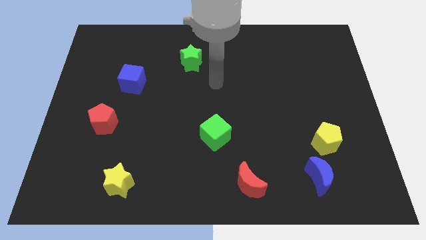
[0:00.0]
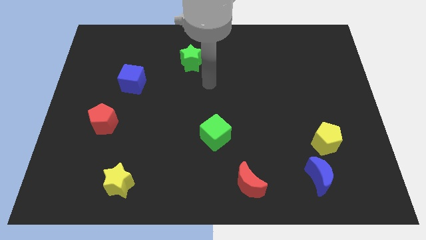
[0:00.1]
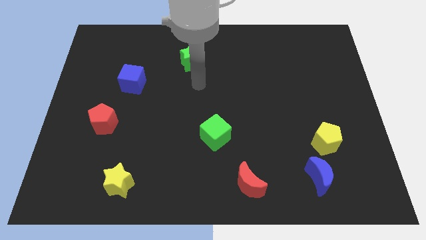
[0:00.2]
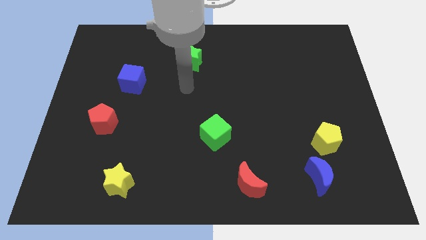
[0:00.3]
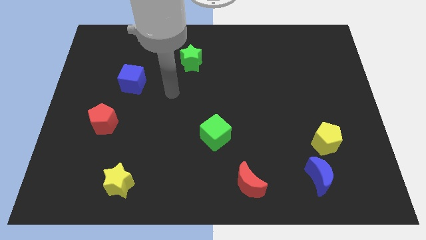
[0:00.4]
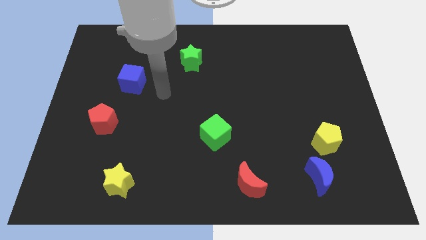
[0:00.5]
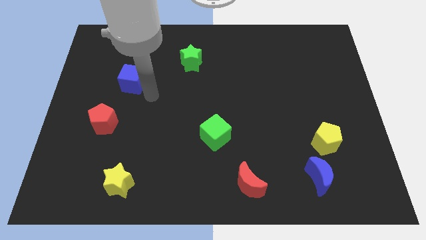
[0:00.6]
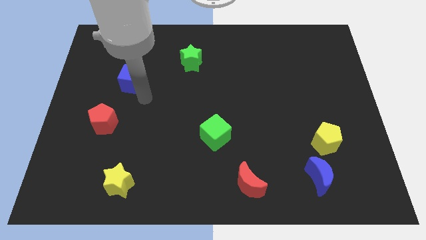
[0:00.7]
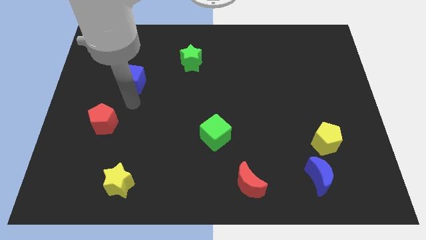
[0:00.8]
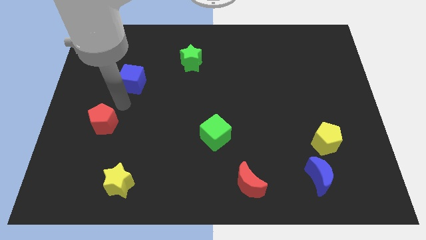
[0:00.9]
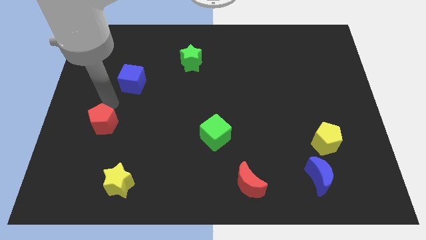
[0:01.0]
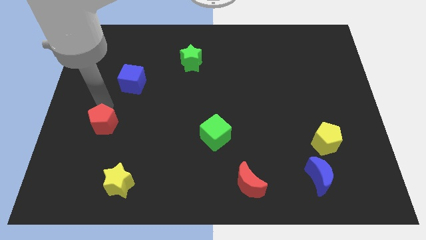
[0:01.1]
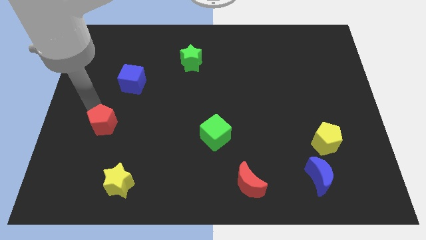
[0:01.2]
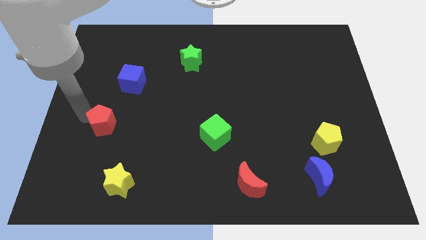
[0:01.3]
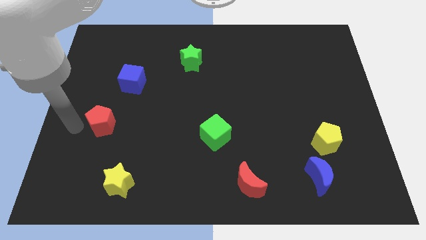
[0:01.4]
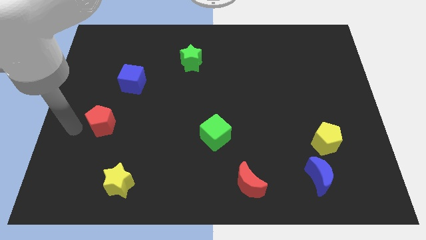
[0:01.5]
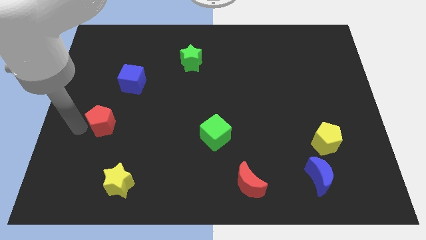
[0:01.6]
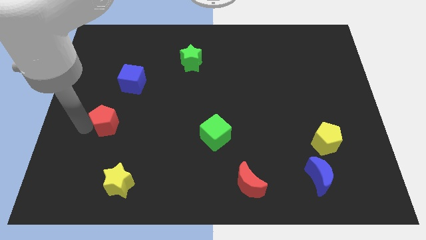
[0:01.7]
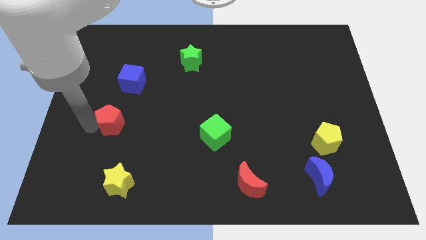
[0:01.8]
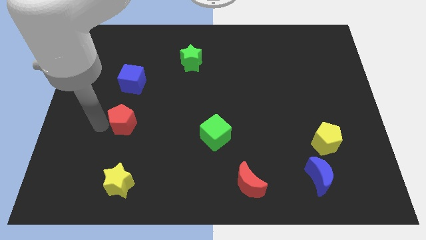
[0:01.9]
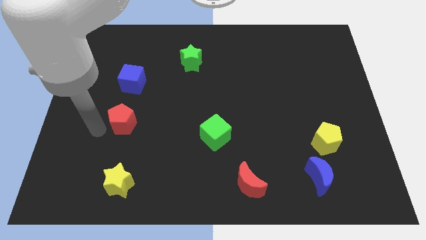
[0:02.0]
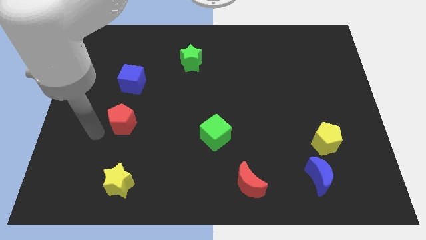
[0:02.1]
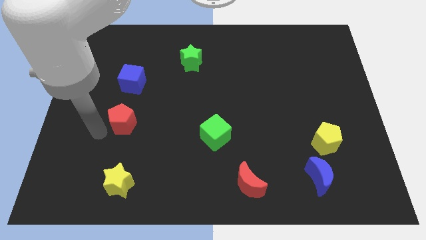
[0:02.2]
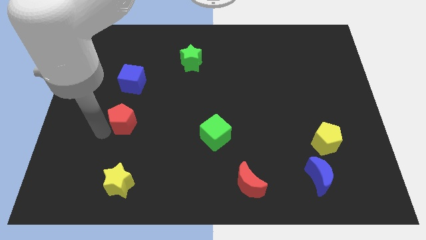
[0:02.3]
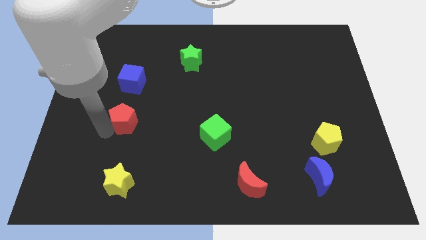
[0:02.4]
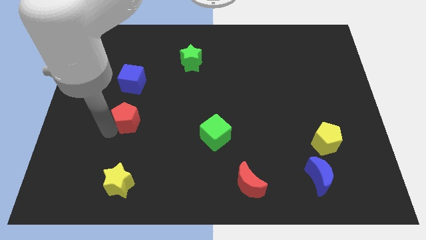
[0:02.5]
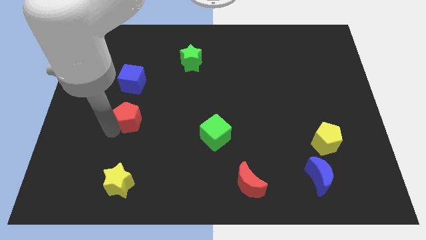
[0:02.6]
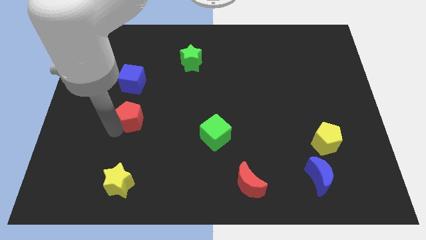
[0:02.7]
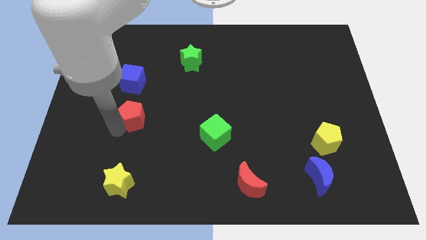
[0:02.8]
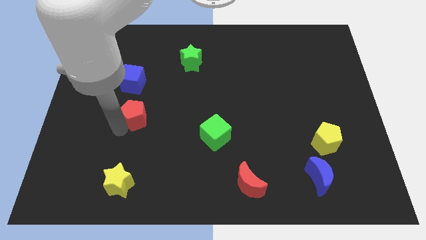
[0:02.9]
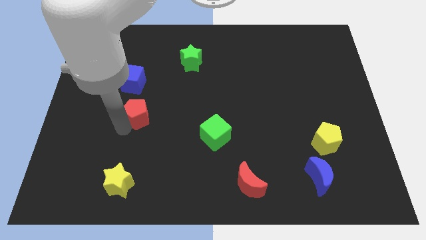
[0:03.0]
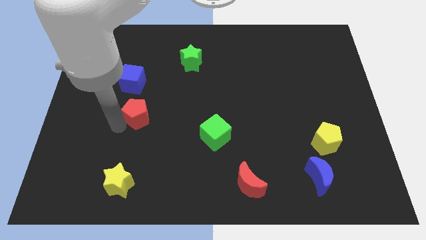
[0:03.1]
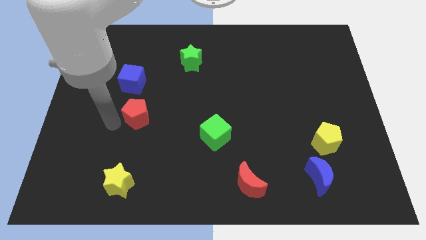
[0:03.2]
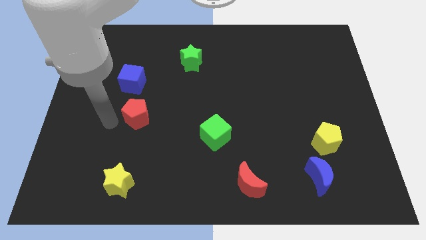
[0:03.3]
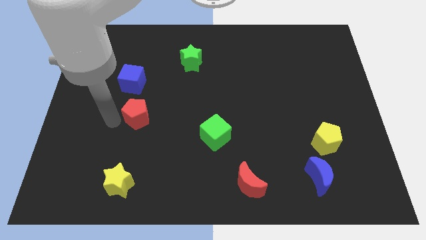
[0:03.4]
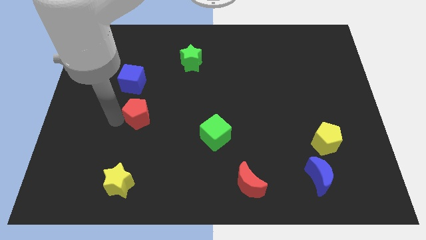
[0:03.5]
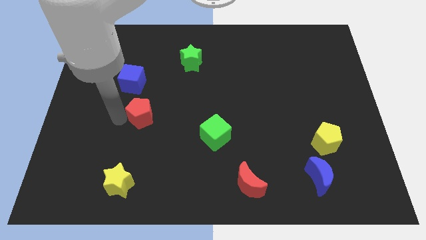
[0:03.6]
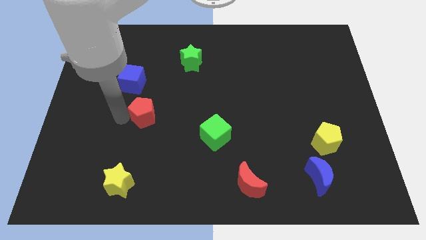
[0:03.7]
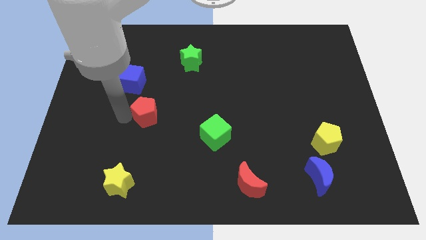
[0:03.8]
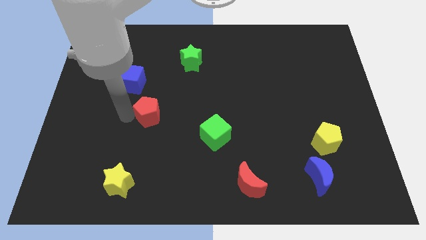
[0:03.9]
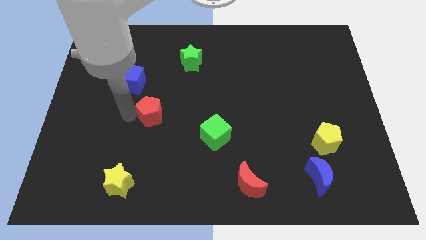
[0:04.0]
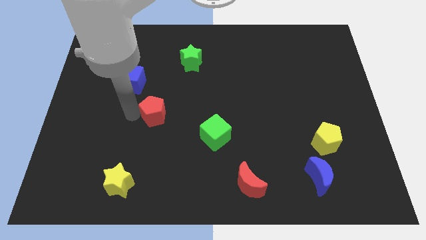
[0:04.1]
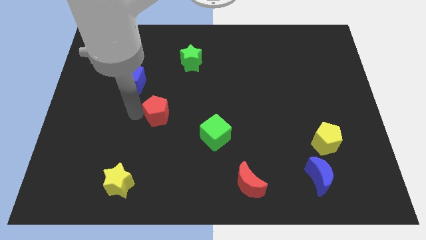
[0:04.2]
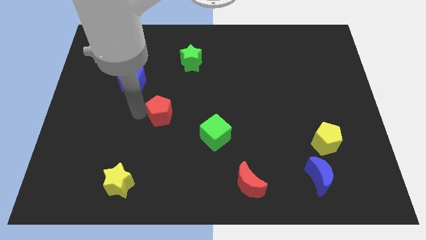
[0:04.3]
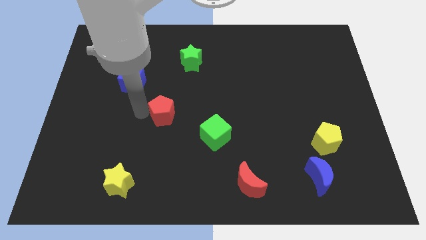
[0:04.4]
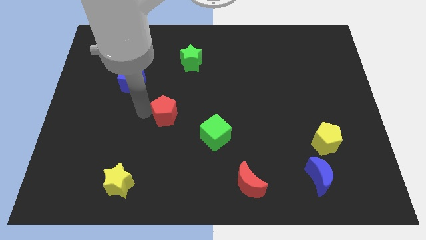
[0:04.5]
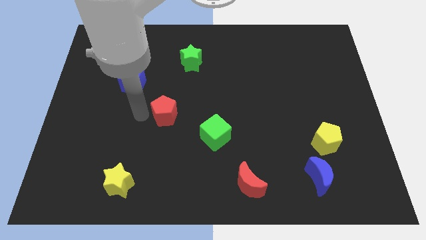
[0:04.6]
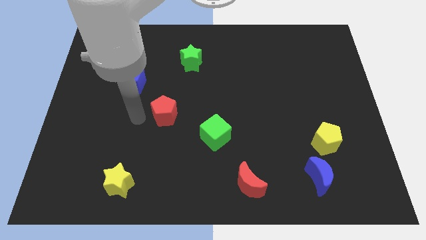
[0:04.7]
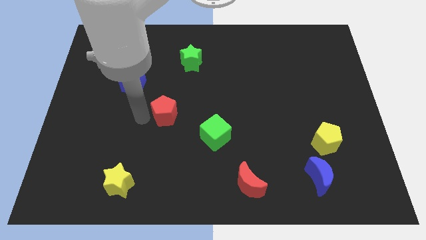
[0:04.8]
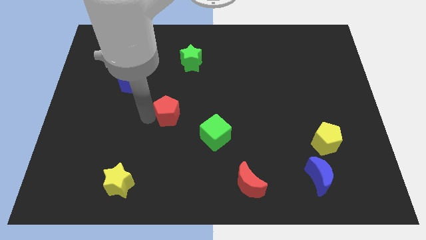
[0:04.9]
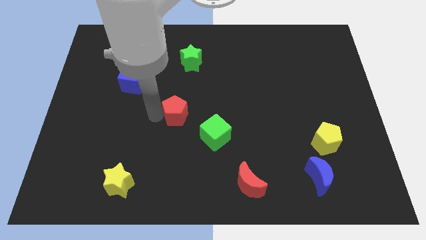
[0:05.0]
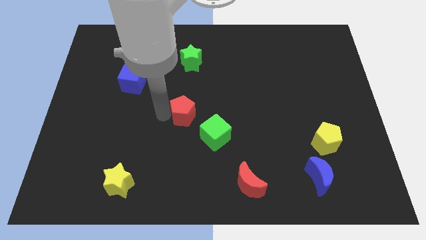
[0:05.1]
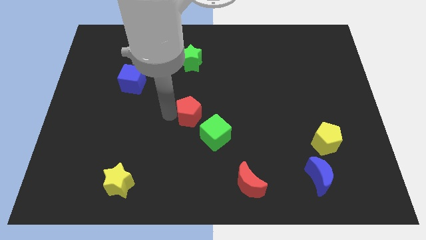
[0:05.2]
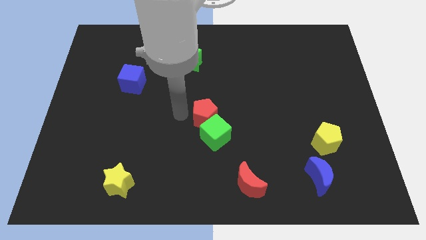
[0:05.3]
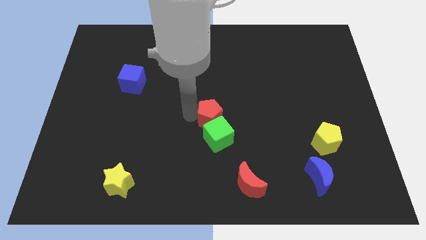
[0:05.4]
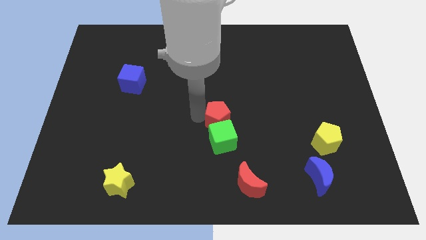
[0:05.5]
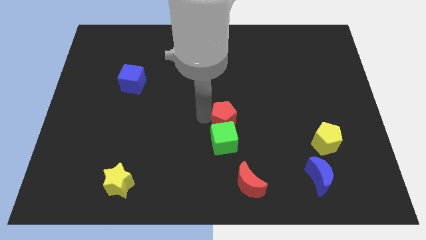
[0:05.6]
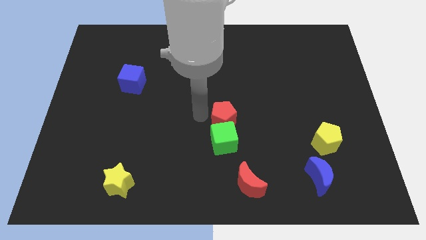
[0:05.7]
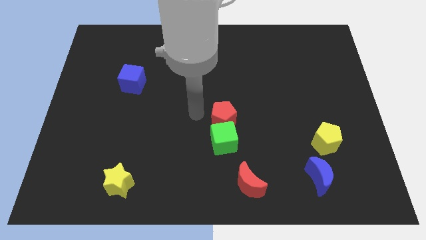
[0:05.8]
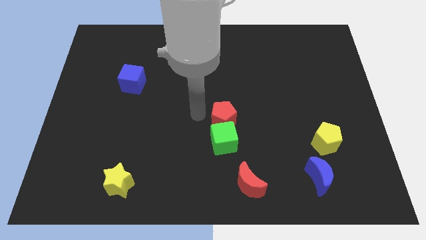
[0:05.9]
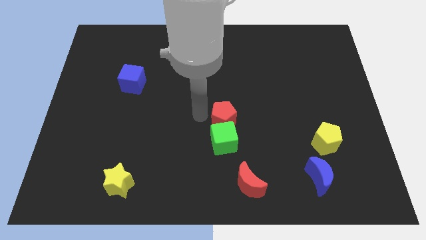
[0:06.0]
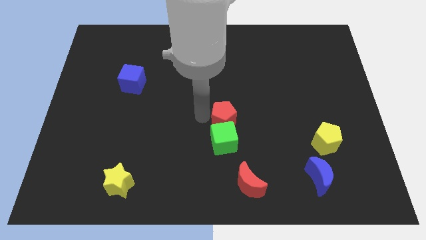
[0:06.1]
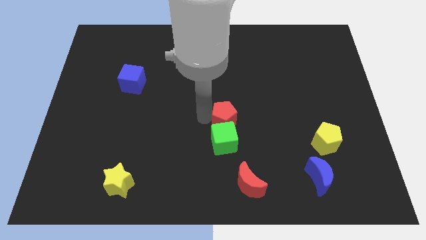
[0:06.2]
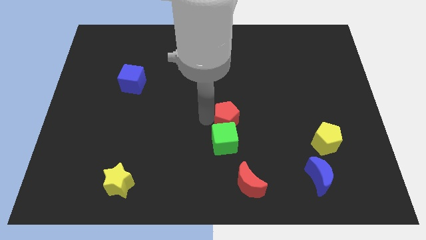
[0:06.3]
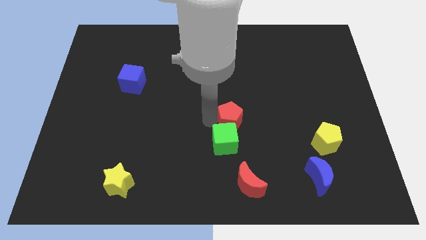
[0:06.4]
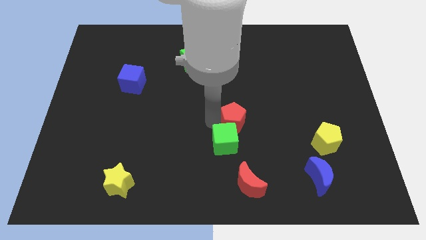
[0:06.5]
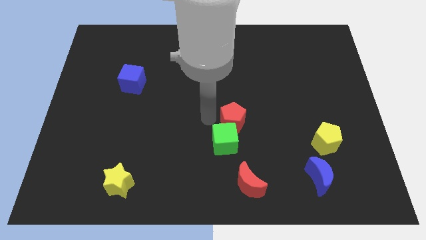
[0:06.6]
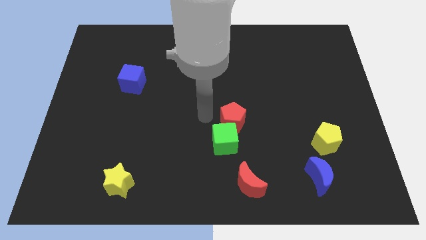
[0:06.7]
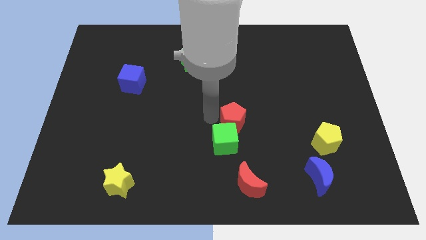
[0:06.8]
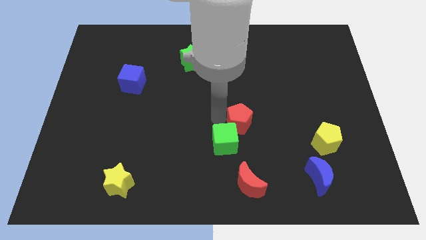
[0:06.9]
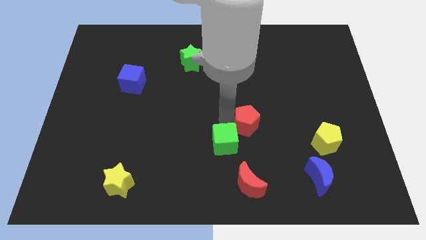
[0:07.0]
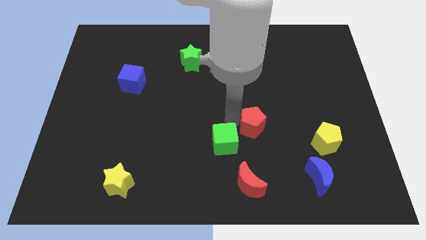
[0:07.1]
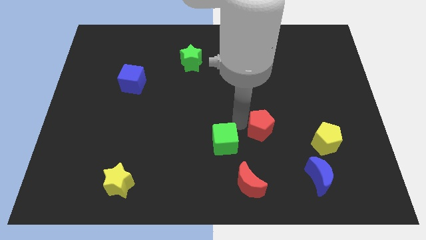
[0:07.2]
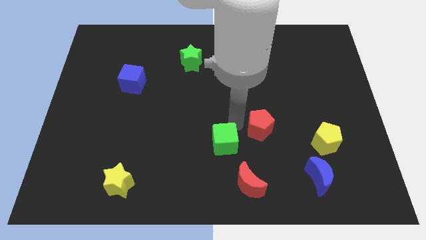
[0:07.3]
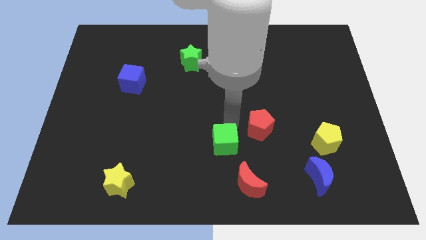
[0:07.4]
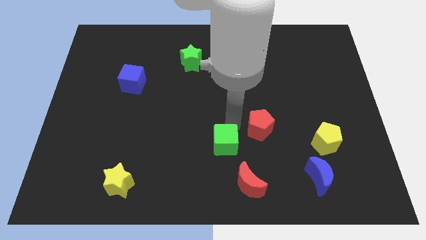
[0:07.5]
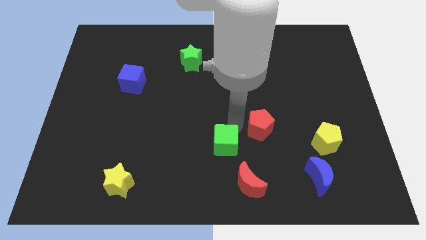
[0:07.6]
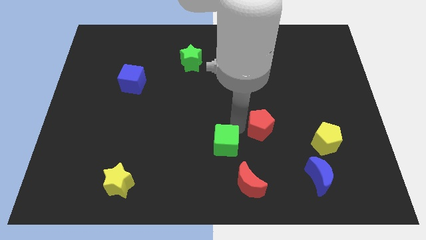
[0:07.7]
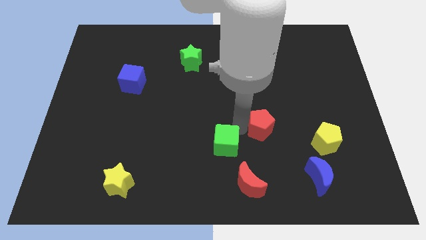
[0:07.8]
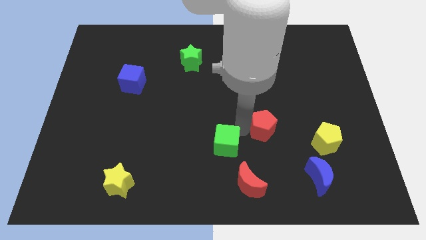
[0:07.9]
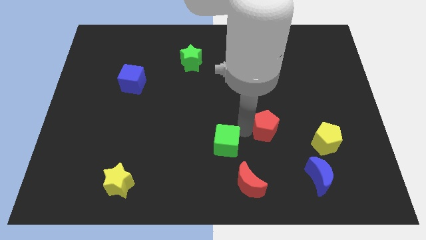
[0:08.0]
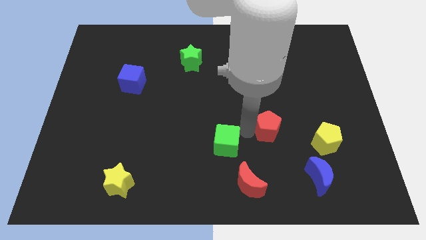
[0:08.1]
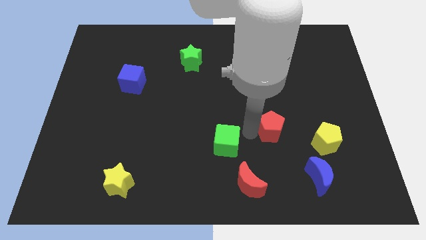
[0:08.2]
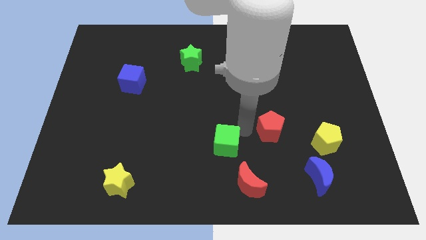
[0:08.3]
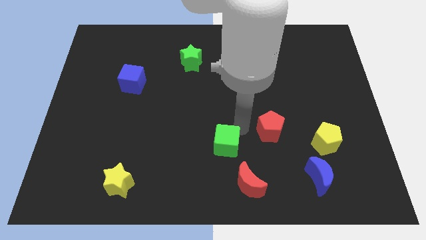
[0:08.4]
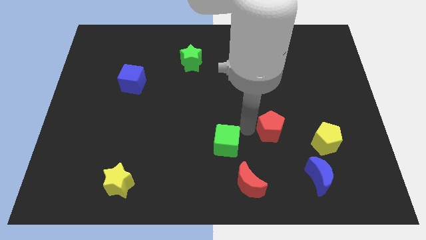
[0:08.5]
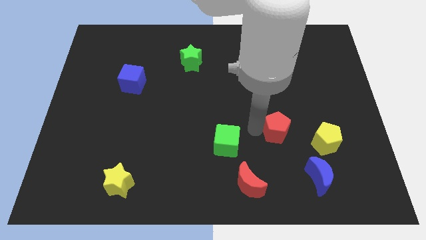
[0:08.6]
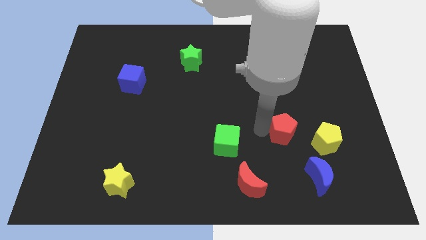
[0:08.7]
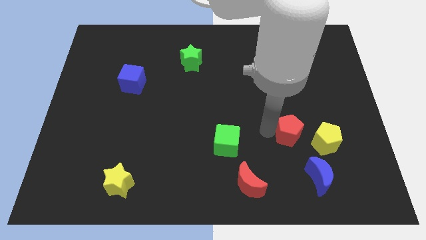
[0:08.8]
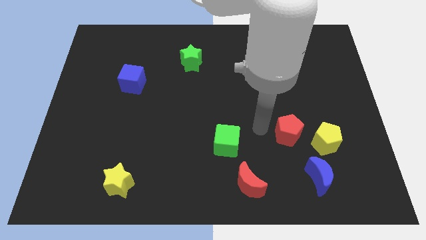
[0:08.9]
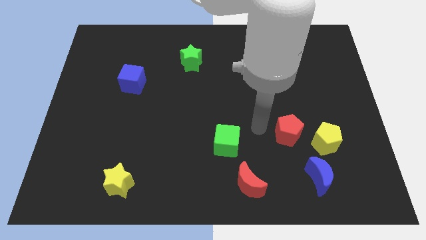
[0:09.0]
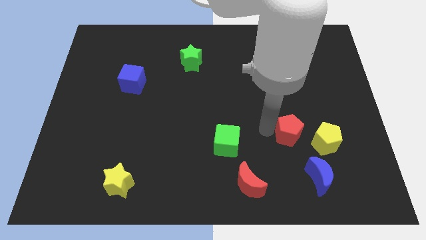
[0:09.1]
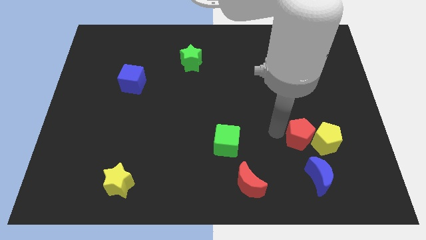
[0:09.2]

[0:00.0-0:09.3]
push the red pentagon to the yellow pentagon
